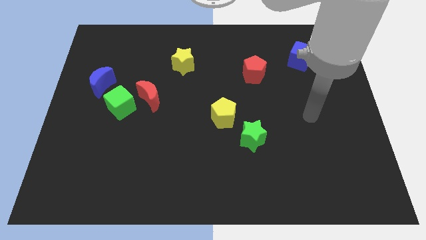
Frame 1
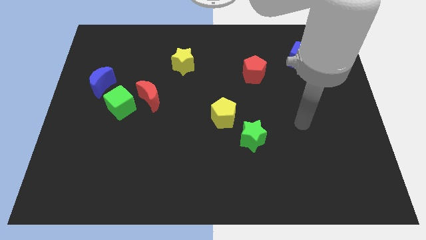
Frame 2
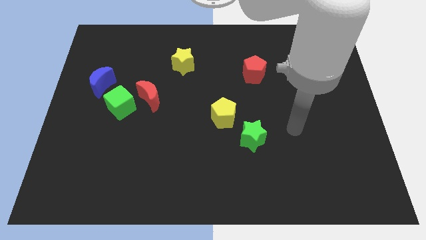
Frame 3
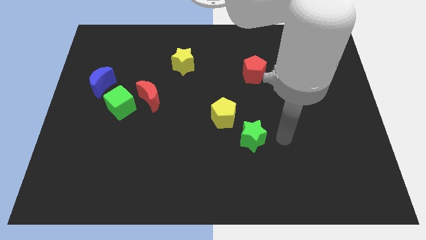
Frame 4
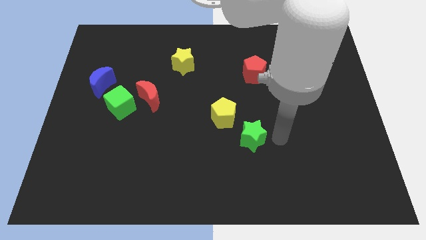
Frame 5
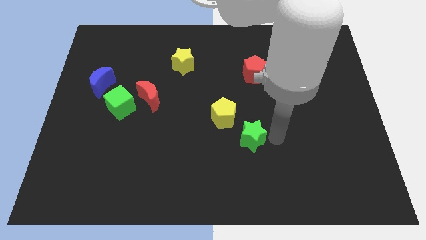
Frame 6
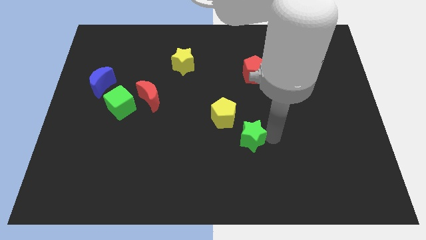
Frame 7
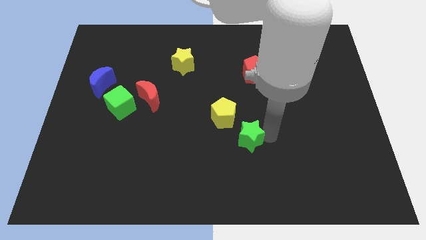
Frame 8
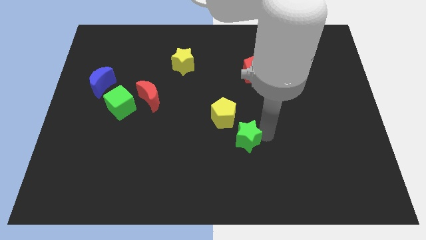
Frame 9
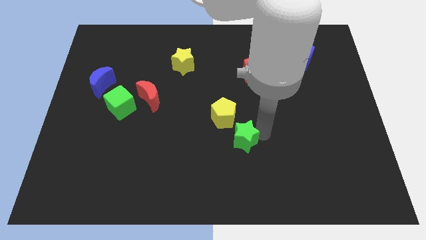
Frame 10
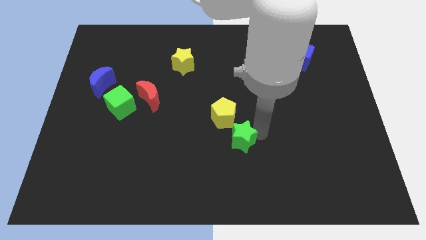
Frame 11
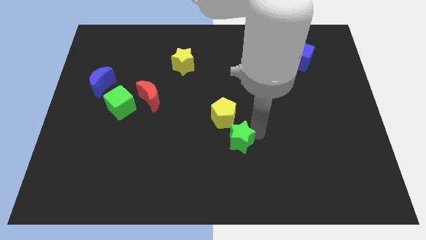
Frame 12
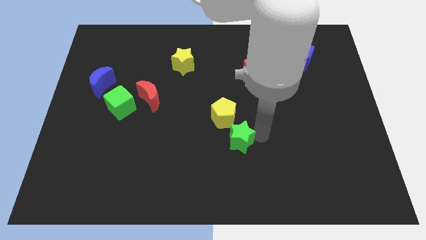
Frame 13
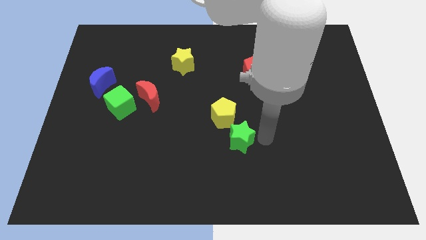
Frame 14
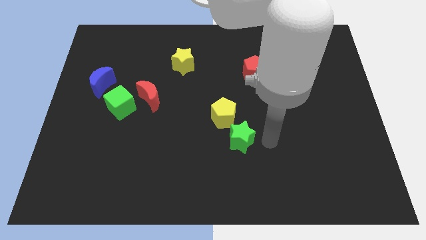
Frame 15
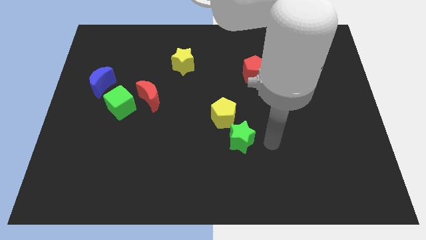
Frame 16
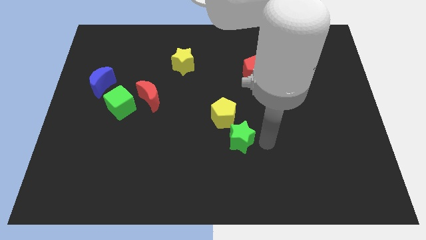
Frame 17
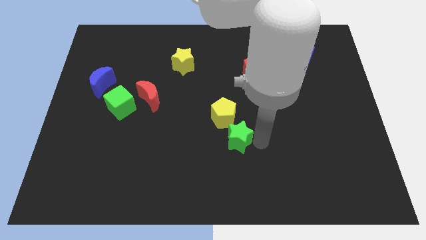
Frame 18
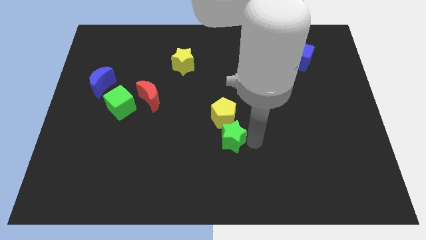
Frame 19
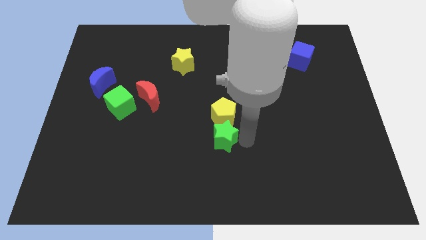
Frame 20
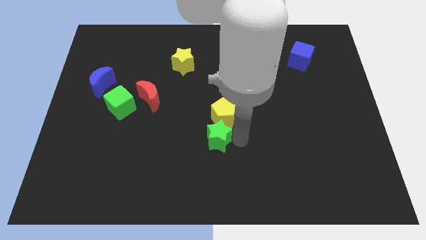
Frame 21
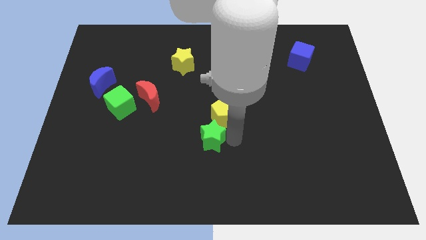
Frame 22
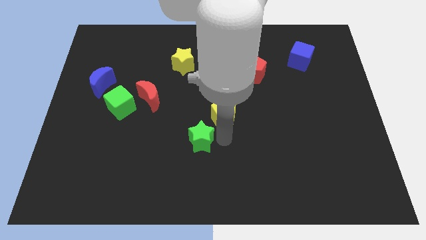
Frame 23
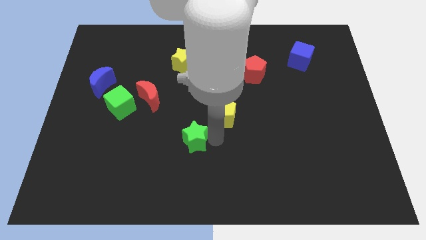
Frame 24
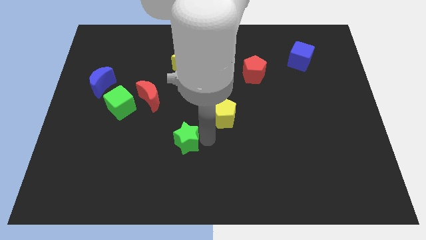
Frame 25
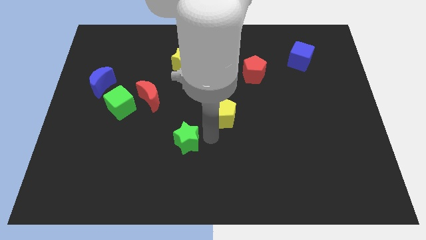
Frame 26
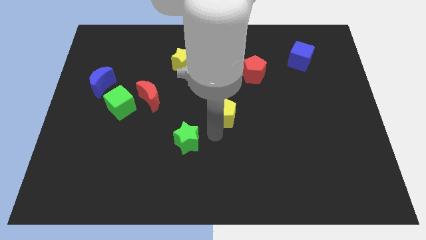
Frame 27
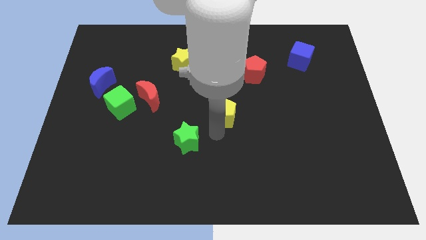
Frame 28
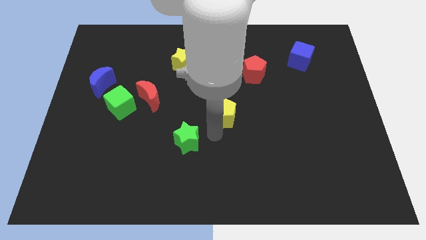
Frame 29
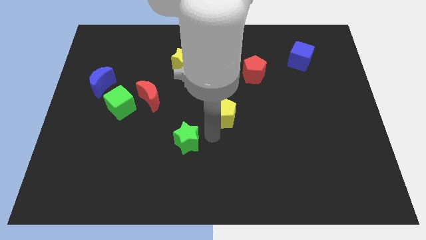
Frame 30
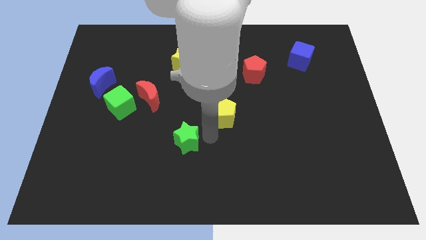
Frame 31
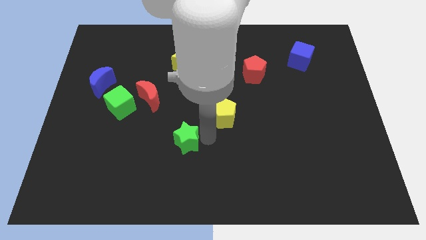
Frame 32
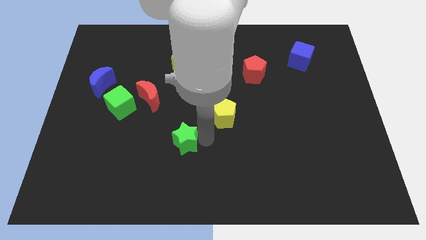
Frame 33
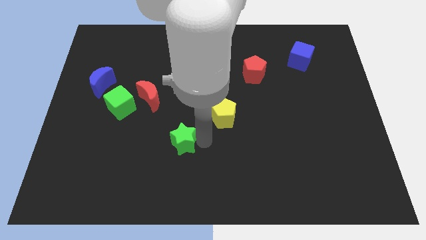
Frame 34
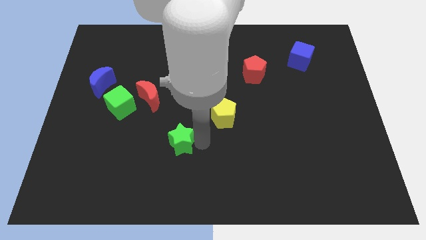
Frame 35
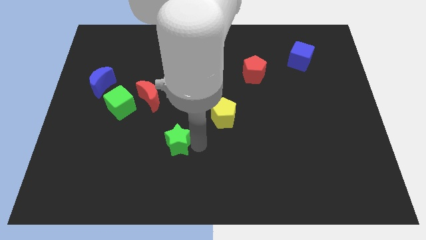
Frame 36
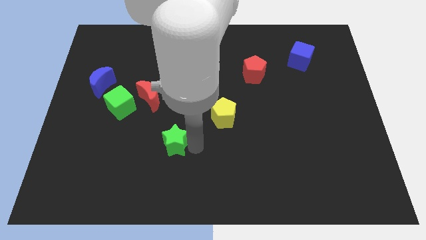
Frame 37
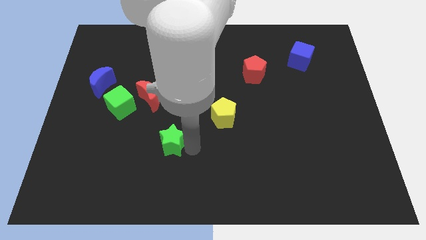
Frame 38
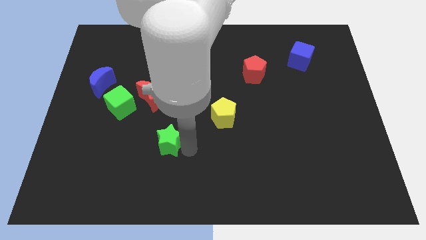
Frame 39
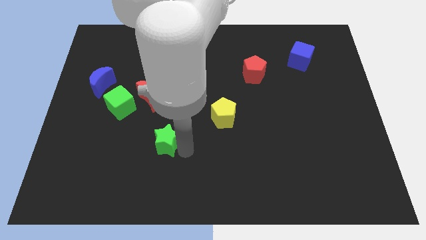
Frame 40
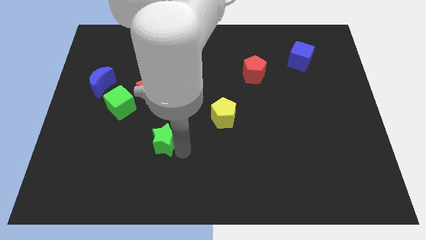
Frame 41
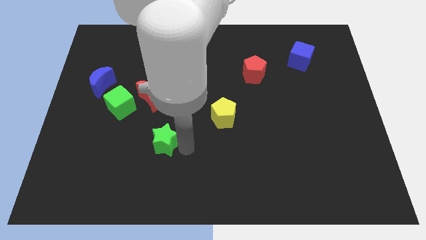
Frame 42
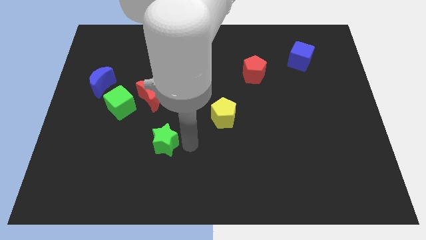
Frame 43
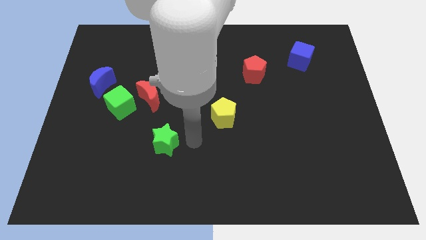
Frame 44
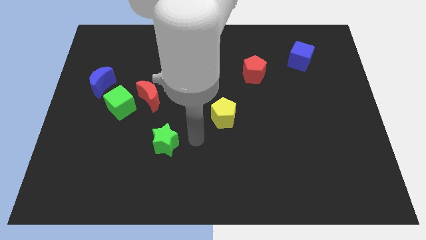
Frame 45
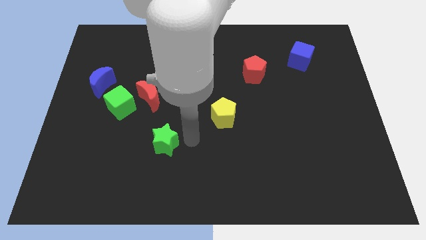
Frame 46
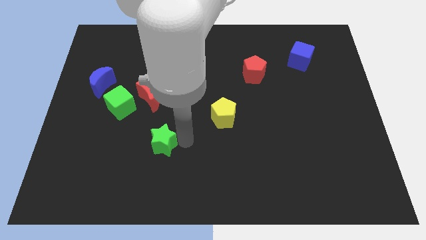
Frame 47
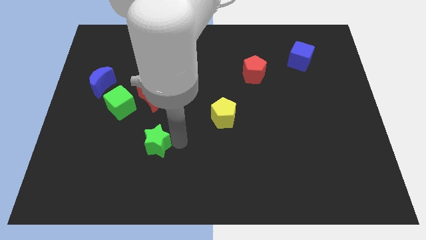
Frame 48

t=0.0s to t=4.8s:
move the green star to the left

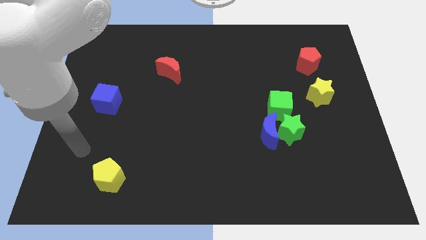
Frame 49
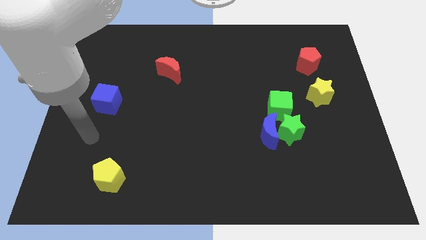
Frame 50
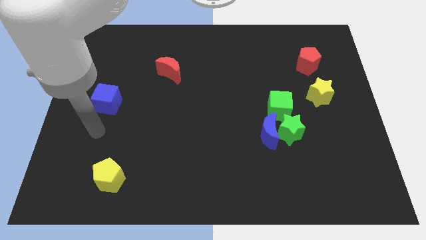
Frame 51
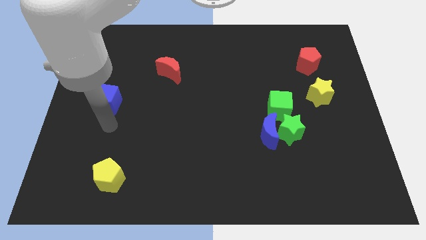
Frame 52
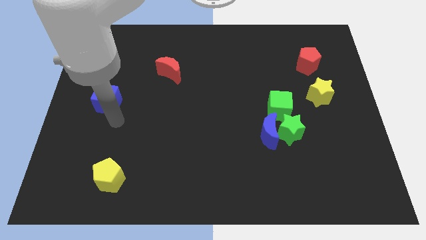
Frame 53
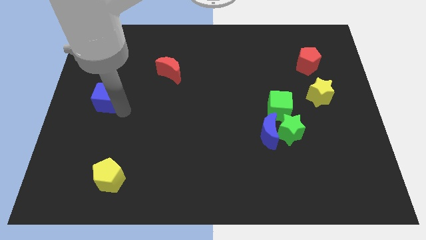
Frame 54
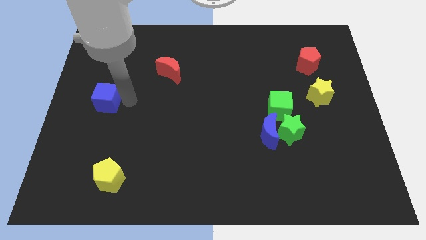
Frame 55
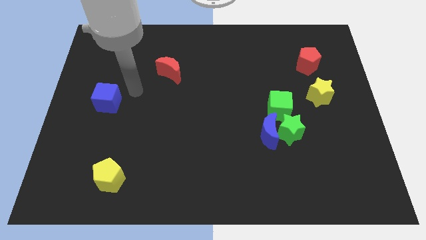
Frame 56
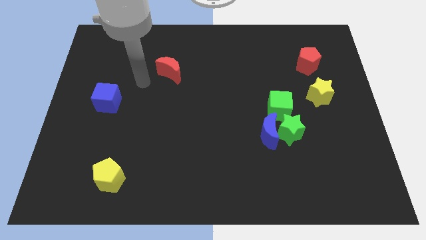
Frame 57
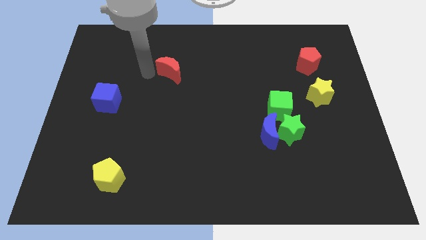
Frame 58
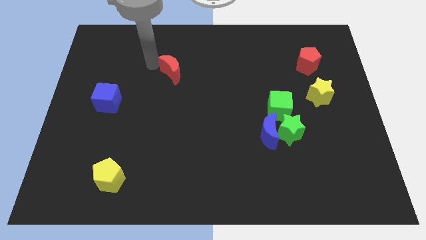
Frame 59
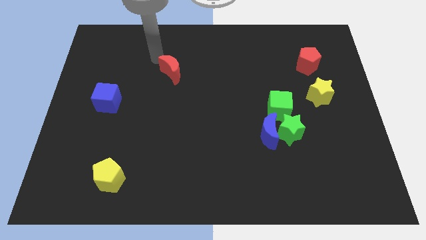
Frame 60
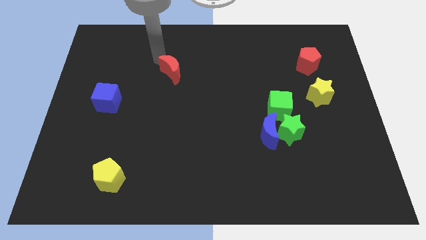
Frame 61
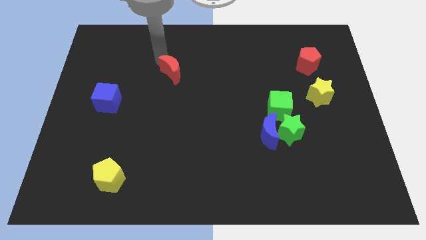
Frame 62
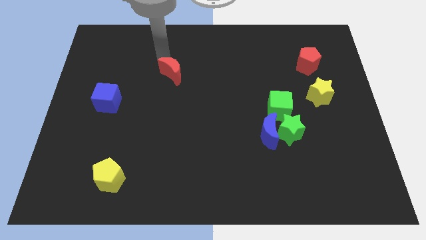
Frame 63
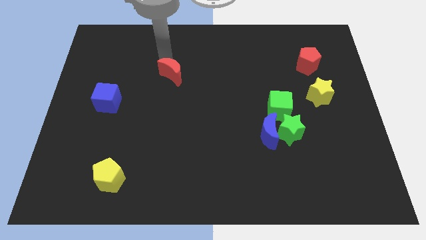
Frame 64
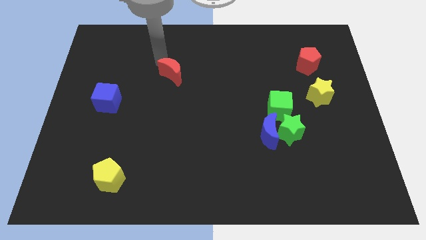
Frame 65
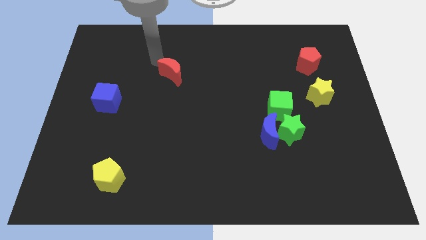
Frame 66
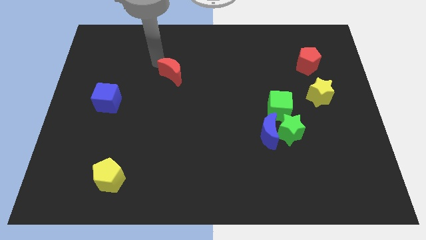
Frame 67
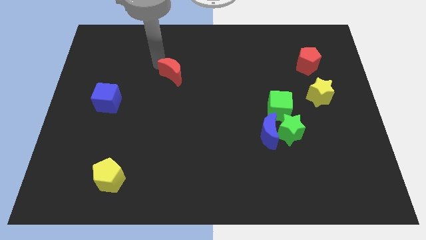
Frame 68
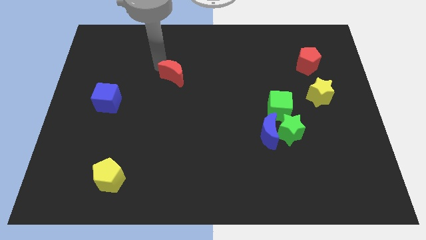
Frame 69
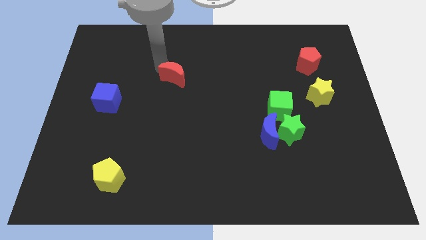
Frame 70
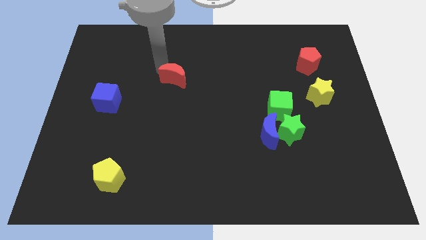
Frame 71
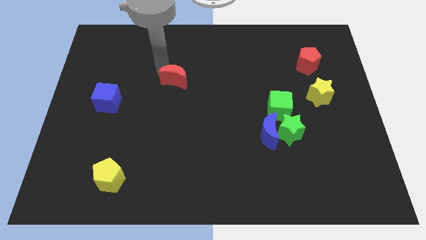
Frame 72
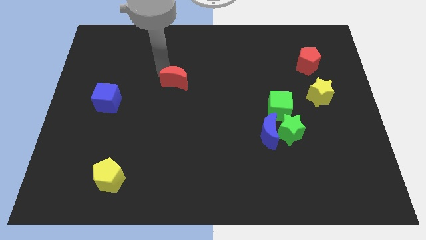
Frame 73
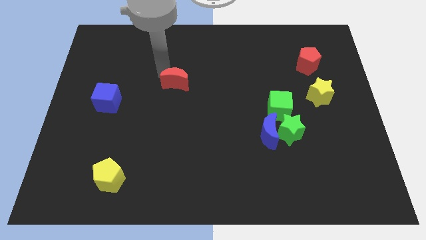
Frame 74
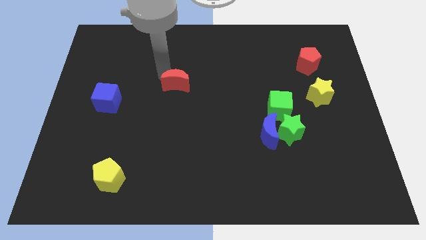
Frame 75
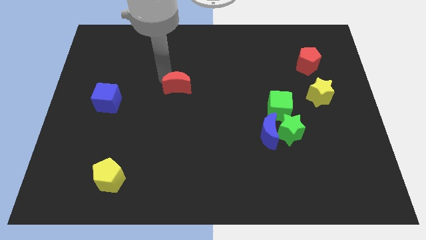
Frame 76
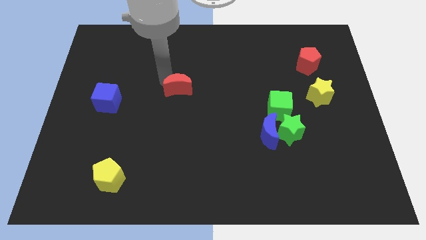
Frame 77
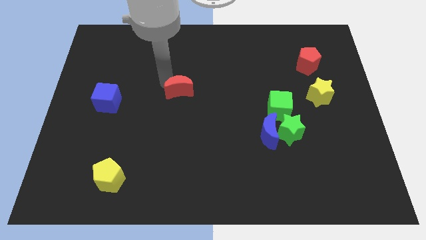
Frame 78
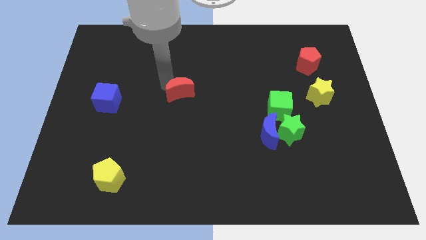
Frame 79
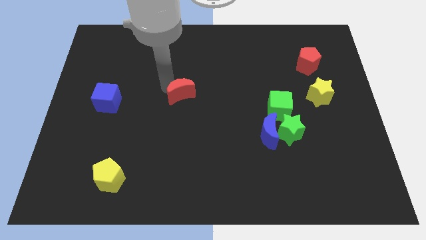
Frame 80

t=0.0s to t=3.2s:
push the red moon diagonally down and to the right a bit
